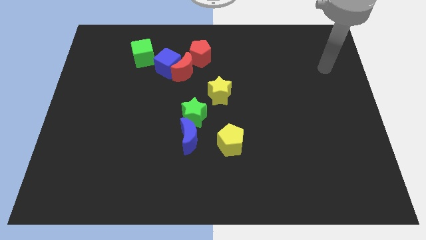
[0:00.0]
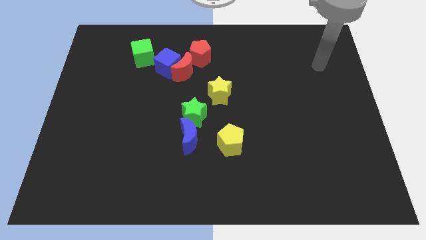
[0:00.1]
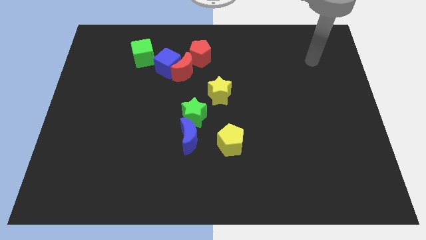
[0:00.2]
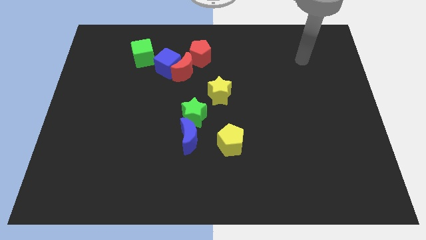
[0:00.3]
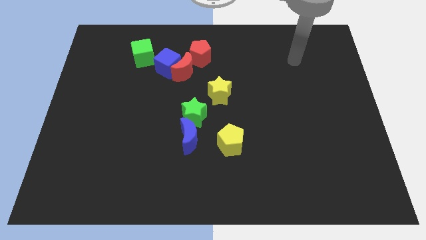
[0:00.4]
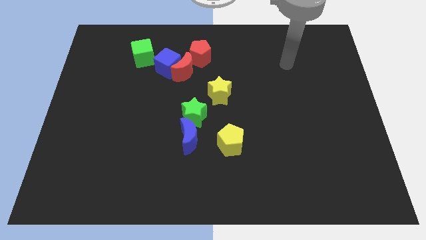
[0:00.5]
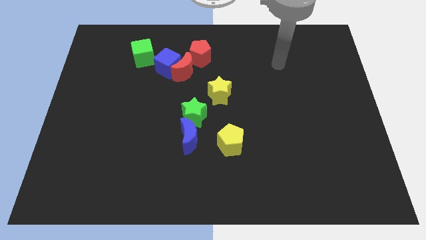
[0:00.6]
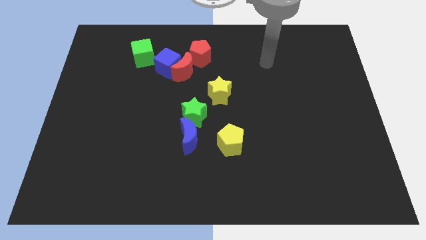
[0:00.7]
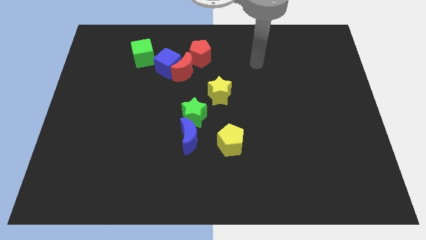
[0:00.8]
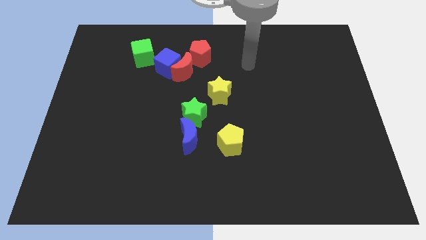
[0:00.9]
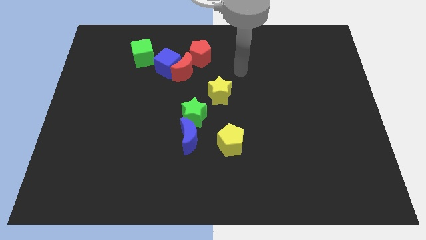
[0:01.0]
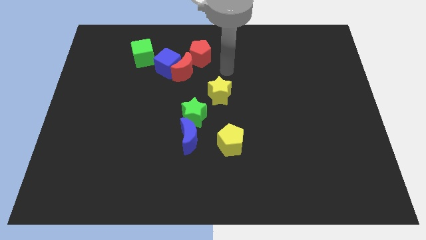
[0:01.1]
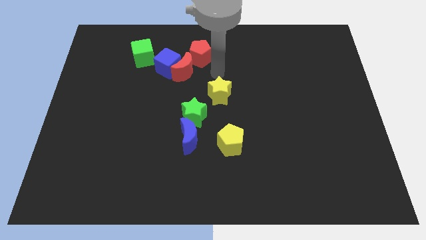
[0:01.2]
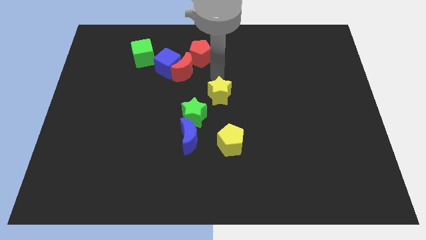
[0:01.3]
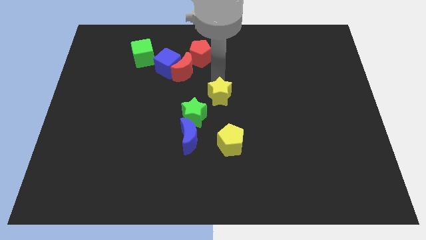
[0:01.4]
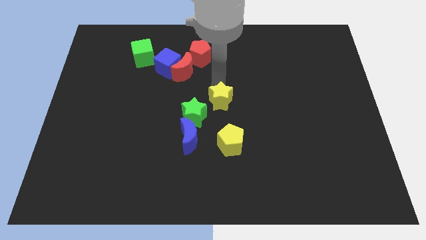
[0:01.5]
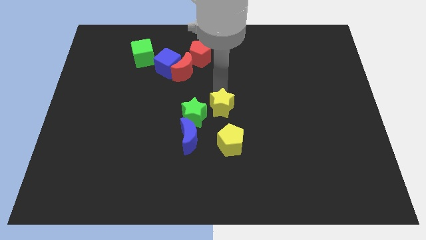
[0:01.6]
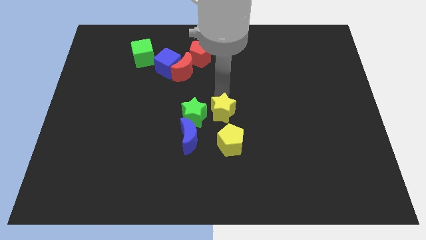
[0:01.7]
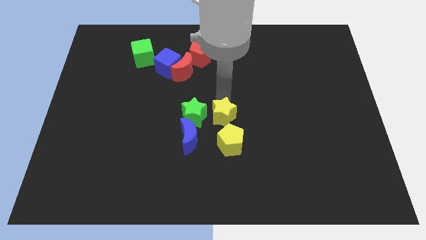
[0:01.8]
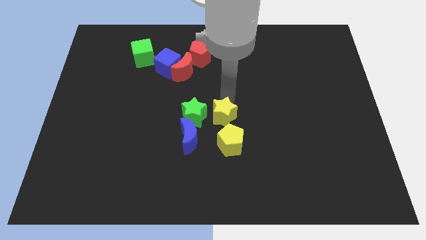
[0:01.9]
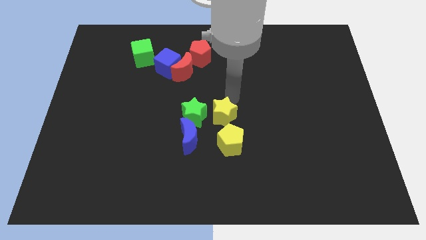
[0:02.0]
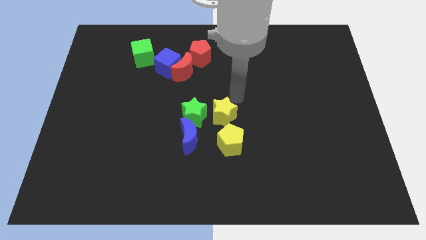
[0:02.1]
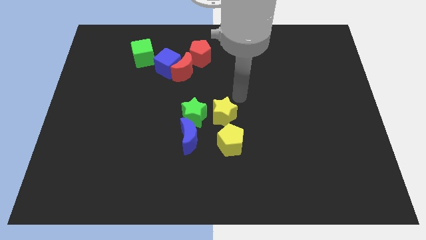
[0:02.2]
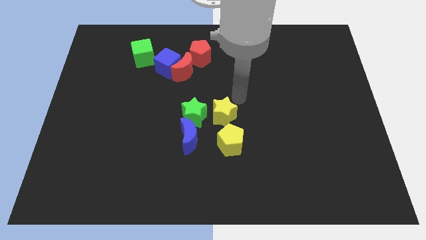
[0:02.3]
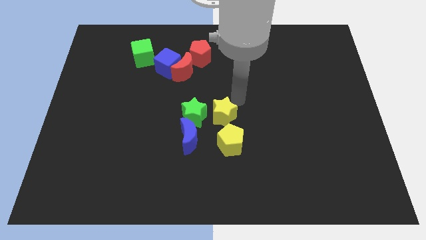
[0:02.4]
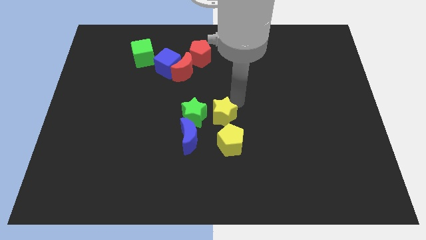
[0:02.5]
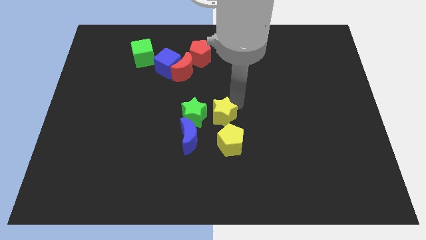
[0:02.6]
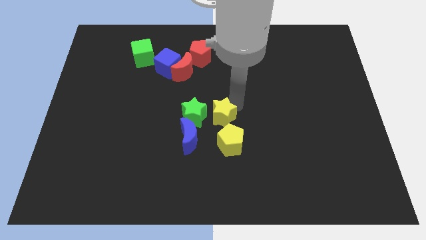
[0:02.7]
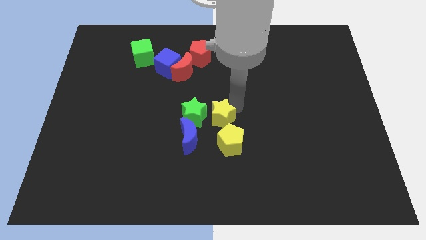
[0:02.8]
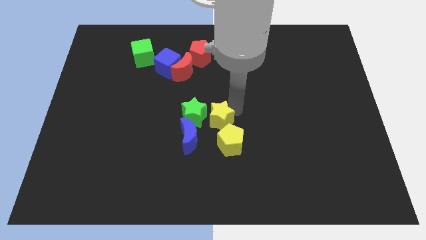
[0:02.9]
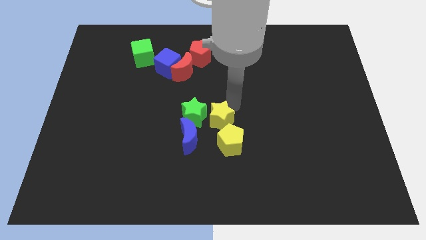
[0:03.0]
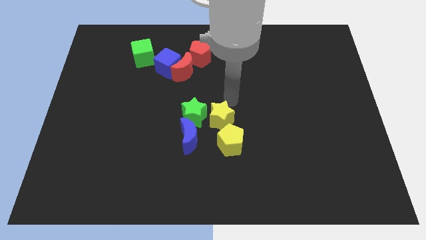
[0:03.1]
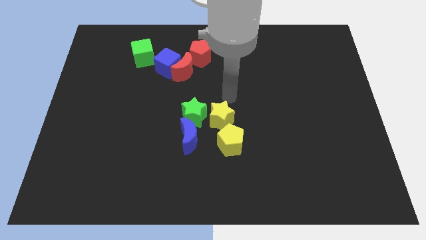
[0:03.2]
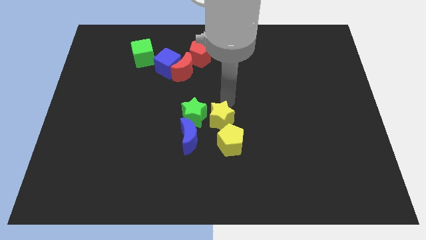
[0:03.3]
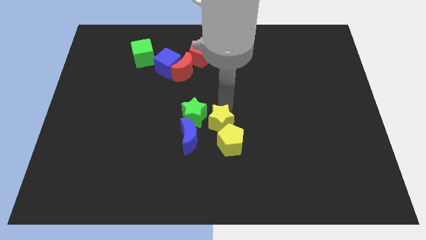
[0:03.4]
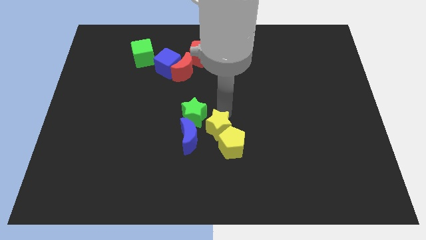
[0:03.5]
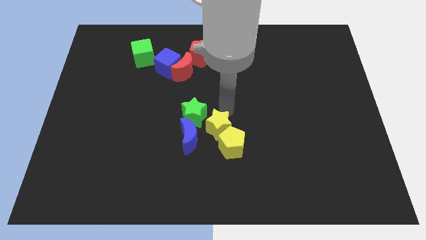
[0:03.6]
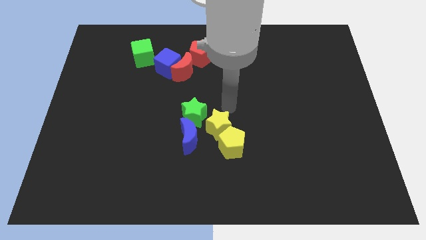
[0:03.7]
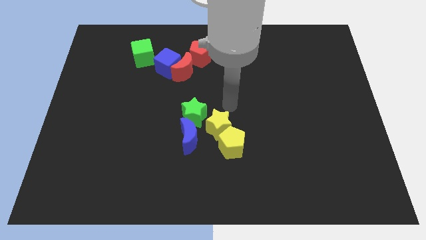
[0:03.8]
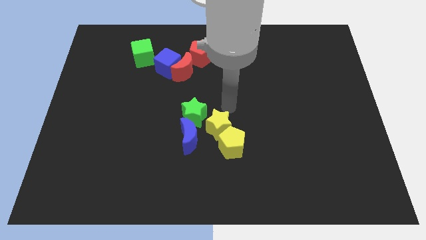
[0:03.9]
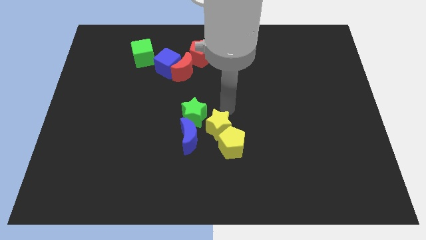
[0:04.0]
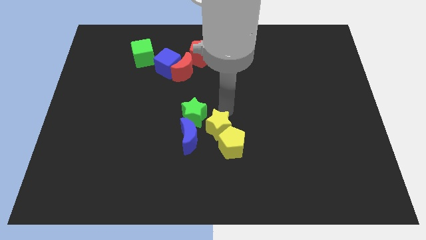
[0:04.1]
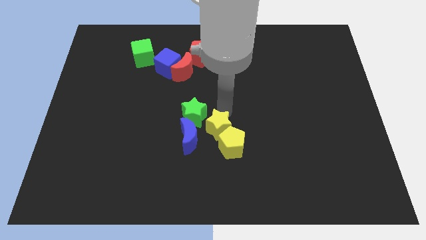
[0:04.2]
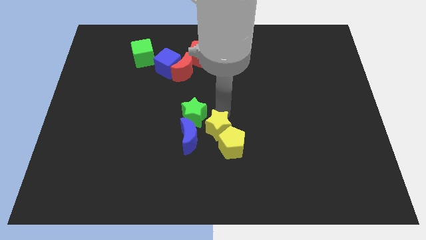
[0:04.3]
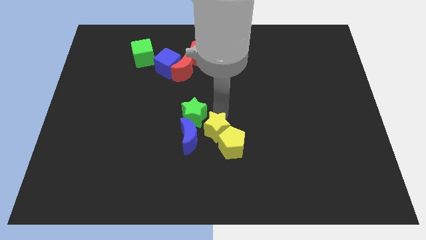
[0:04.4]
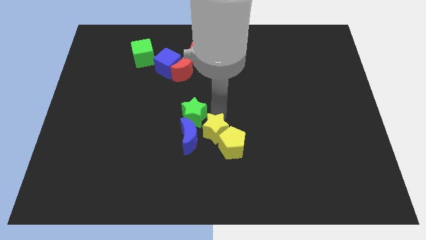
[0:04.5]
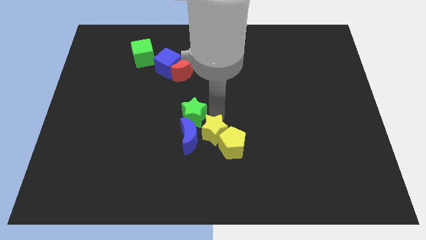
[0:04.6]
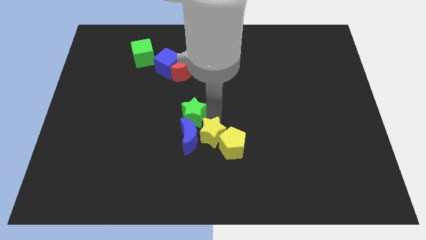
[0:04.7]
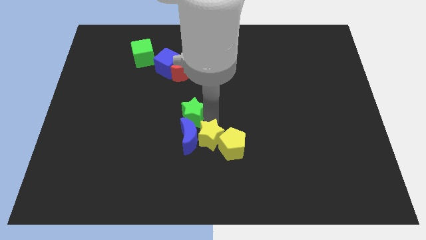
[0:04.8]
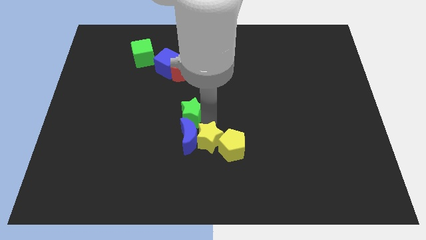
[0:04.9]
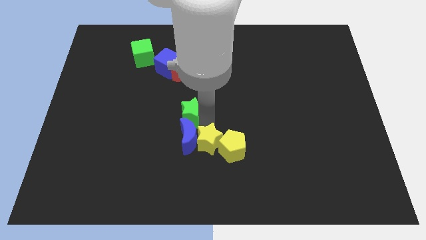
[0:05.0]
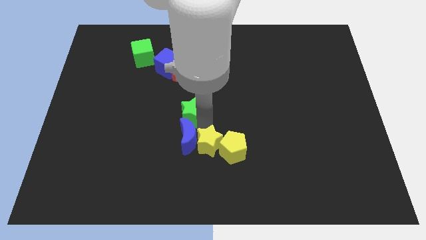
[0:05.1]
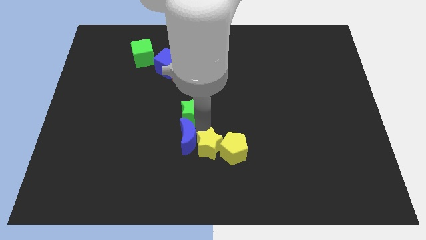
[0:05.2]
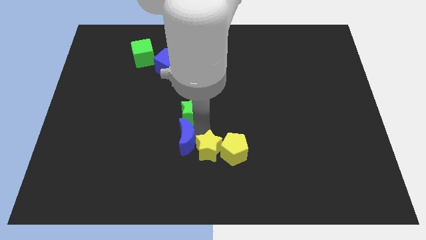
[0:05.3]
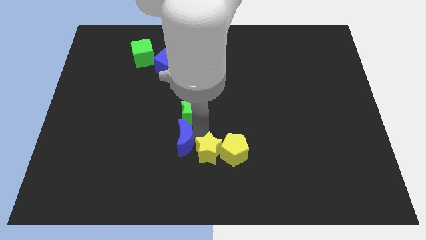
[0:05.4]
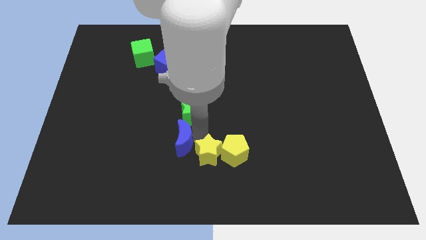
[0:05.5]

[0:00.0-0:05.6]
move the yellow star to the bottom

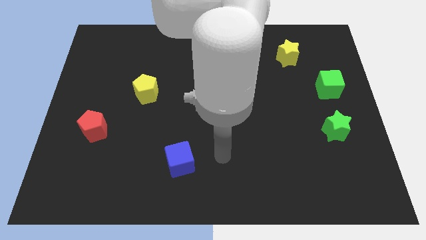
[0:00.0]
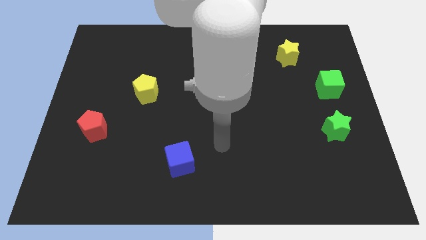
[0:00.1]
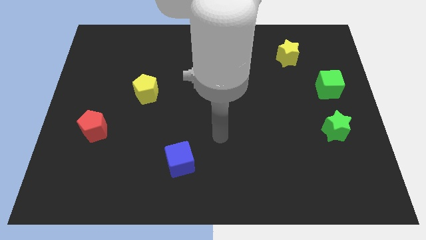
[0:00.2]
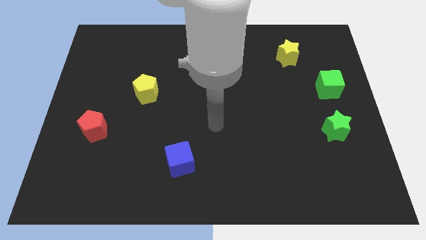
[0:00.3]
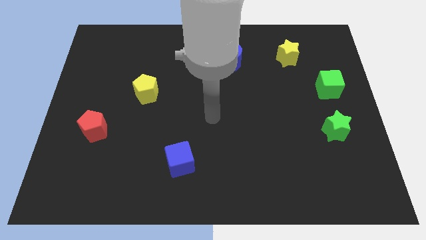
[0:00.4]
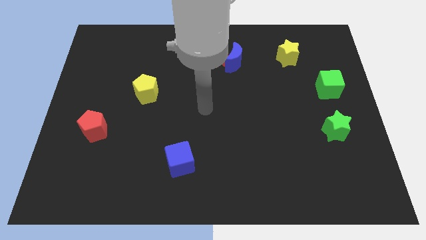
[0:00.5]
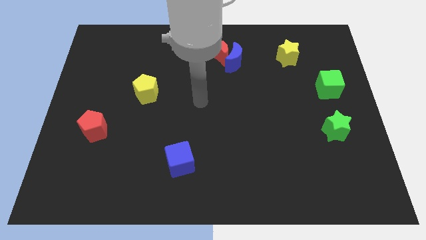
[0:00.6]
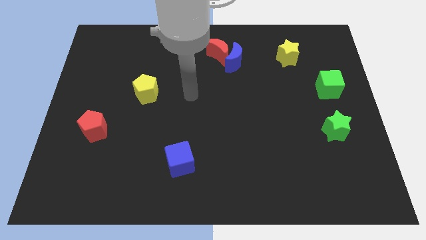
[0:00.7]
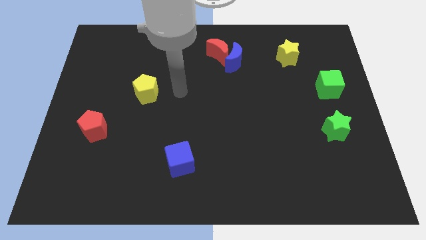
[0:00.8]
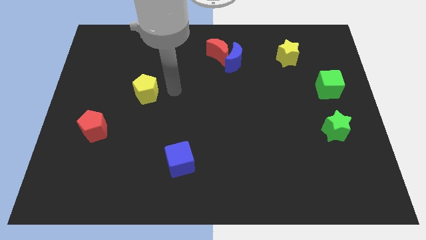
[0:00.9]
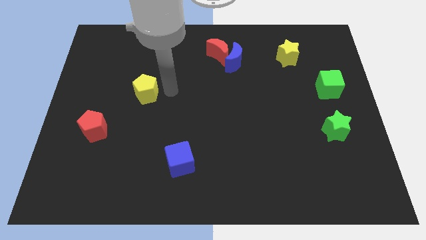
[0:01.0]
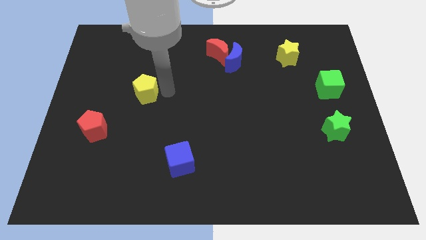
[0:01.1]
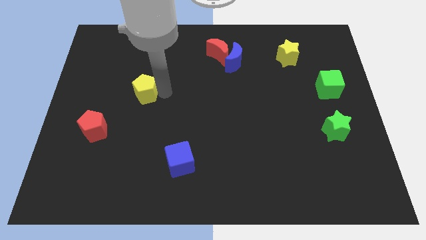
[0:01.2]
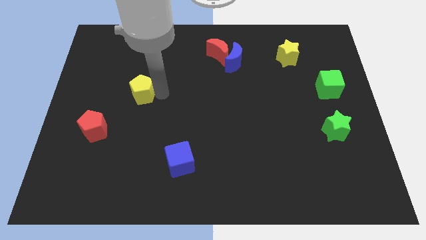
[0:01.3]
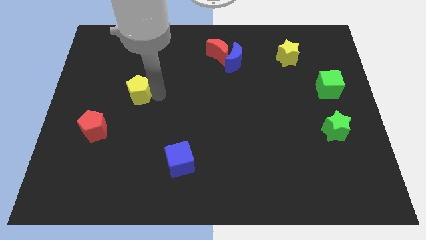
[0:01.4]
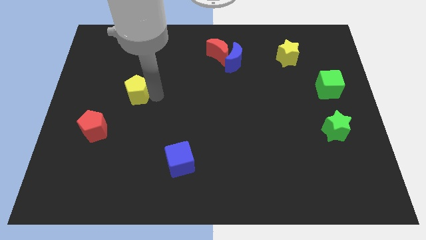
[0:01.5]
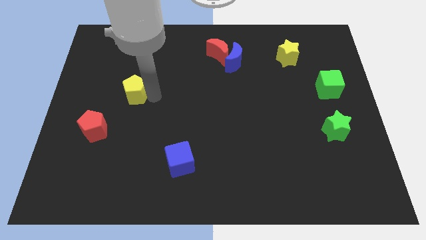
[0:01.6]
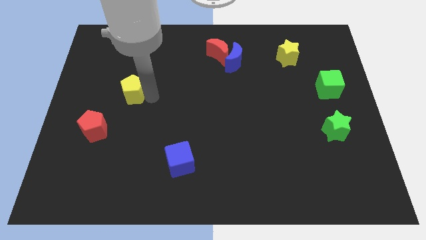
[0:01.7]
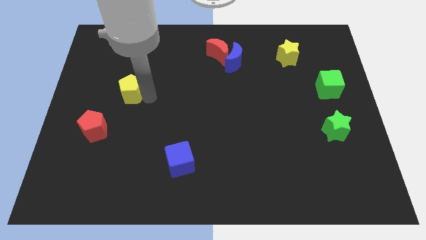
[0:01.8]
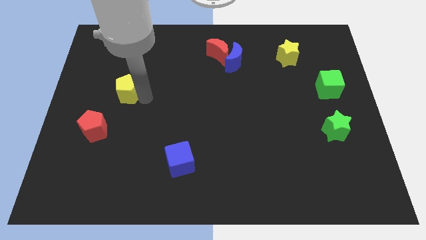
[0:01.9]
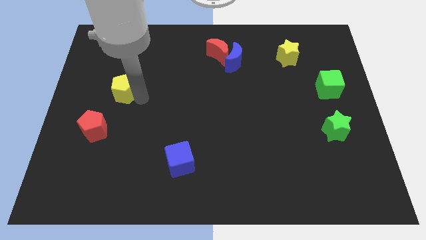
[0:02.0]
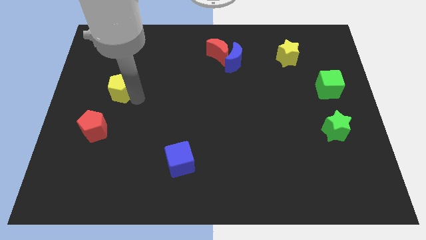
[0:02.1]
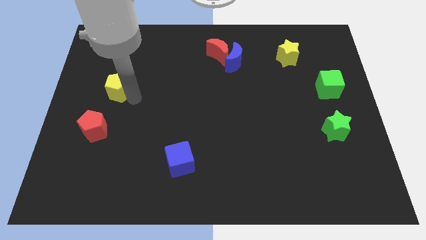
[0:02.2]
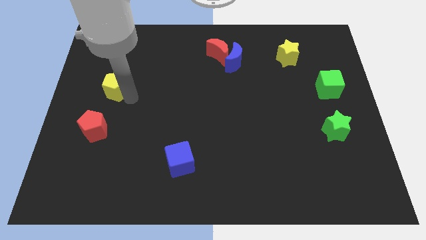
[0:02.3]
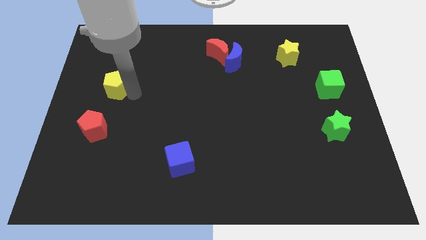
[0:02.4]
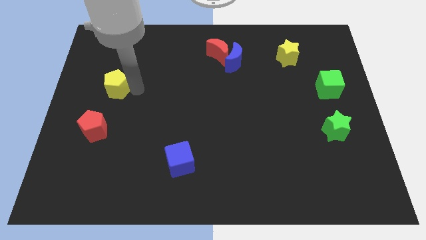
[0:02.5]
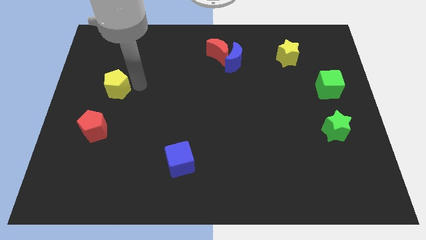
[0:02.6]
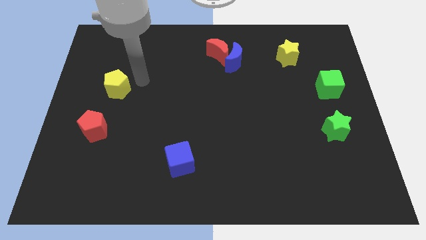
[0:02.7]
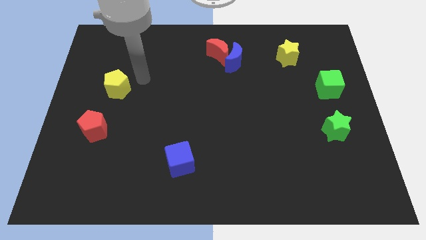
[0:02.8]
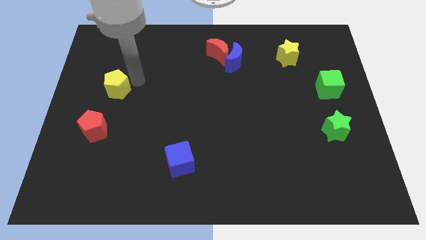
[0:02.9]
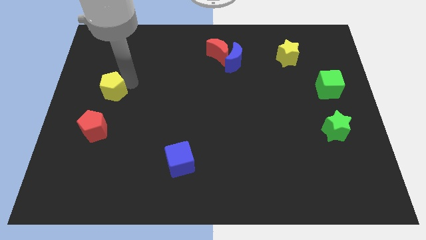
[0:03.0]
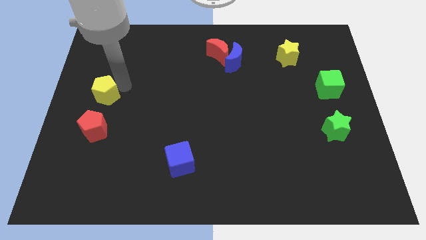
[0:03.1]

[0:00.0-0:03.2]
move the yellow pentagon to the left side
